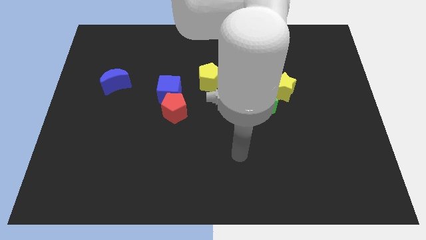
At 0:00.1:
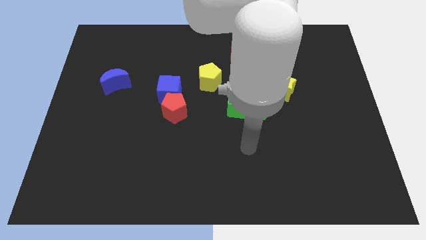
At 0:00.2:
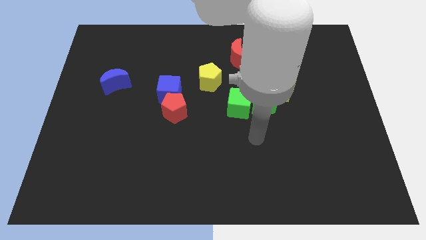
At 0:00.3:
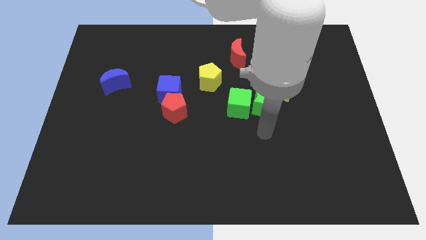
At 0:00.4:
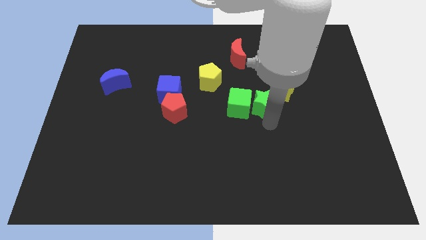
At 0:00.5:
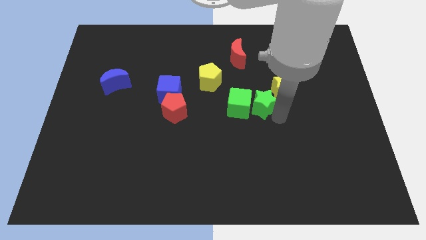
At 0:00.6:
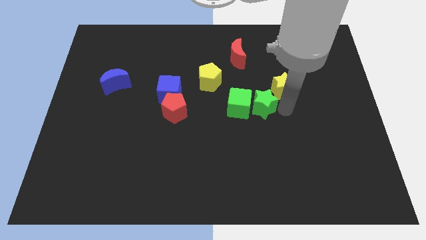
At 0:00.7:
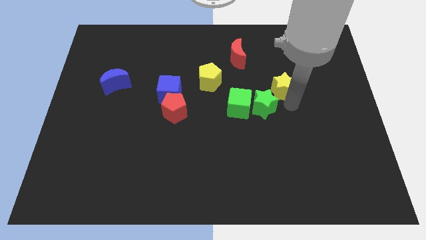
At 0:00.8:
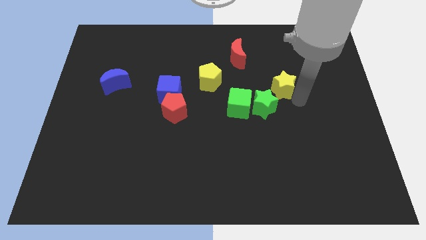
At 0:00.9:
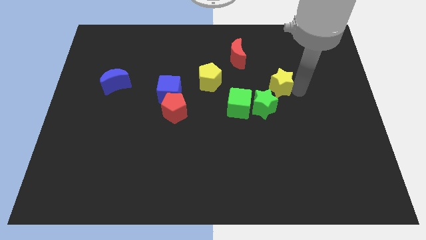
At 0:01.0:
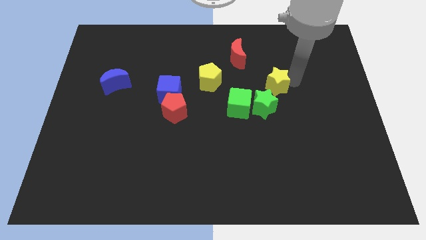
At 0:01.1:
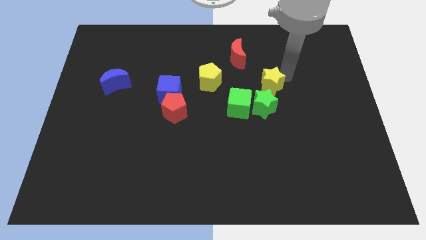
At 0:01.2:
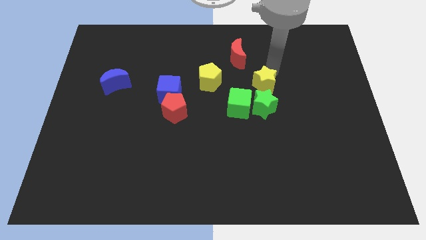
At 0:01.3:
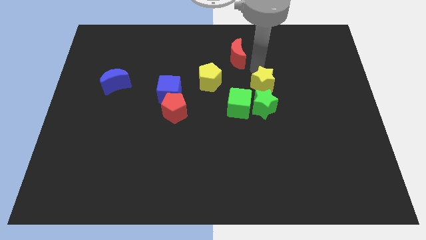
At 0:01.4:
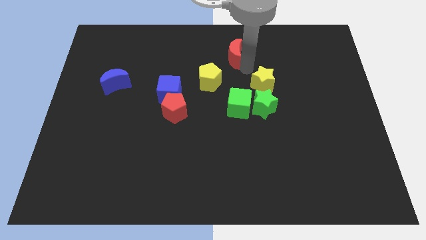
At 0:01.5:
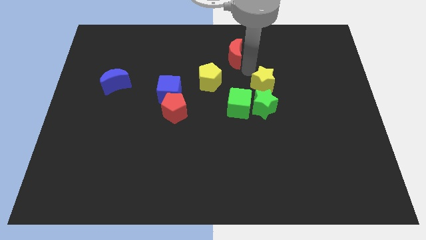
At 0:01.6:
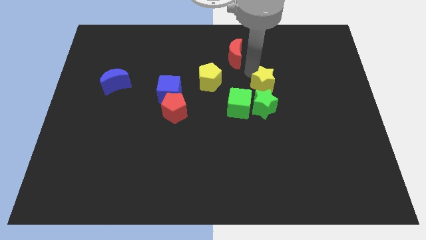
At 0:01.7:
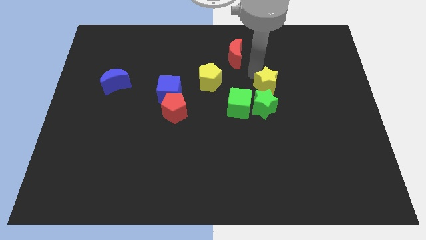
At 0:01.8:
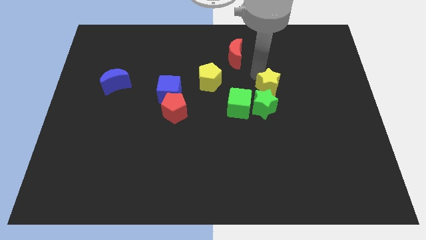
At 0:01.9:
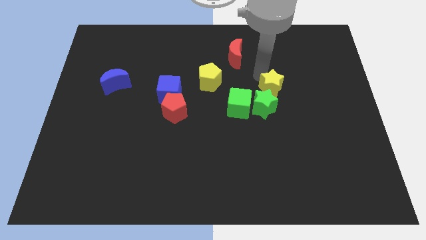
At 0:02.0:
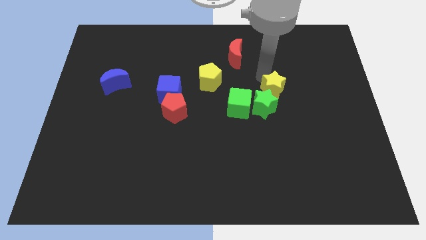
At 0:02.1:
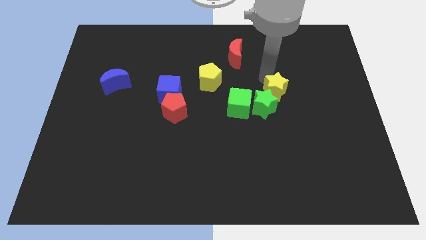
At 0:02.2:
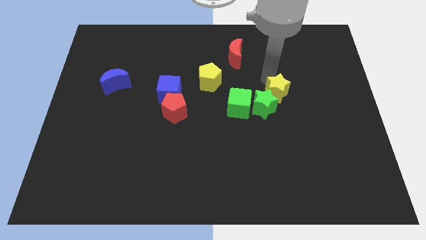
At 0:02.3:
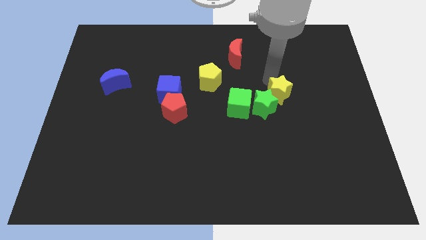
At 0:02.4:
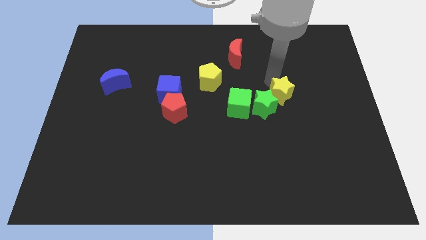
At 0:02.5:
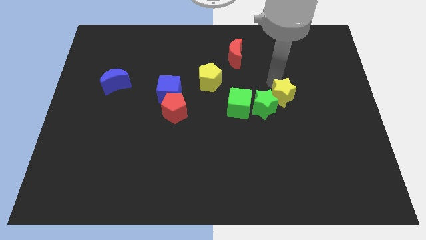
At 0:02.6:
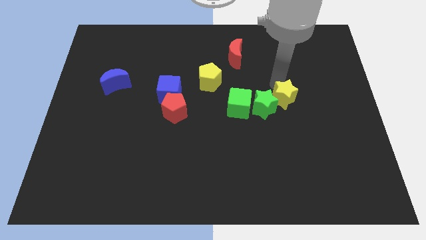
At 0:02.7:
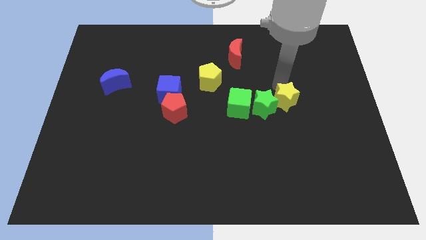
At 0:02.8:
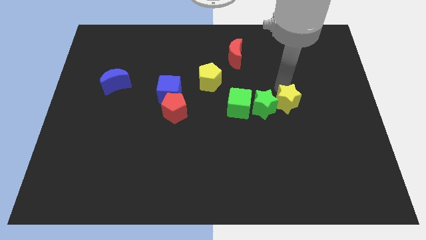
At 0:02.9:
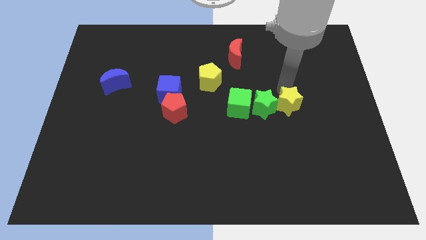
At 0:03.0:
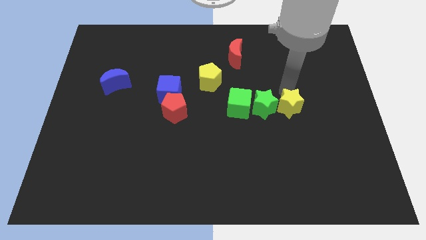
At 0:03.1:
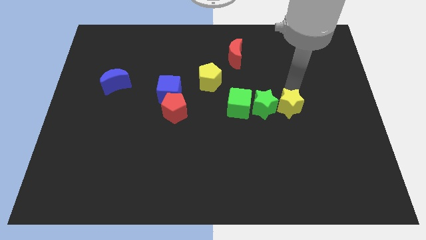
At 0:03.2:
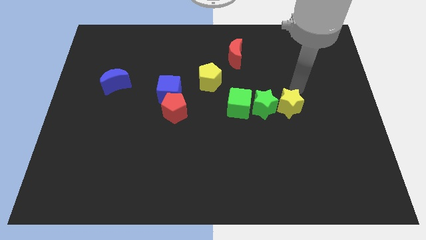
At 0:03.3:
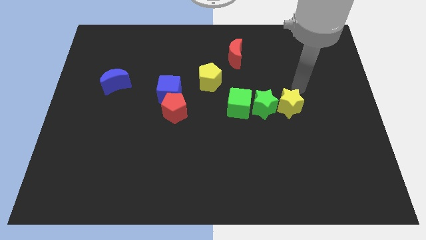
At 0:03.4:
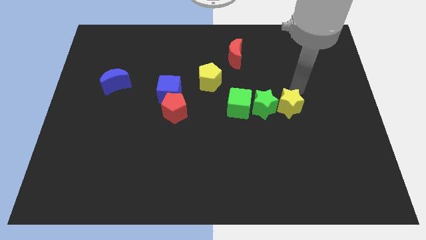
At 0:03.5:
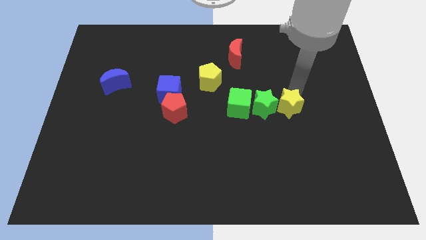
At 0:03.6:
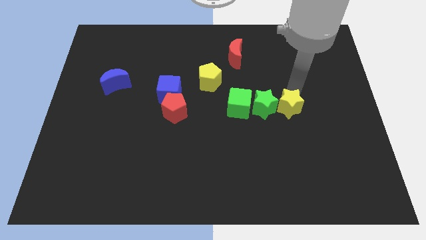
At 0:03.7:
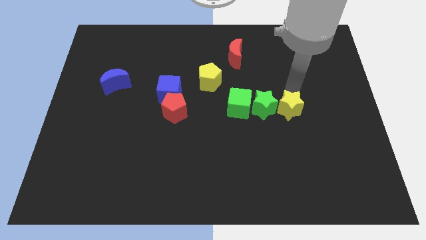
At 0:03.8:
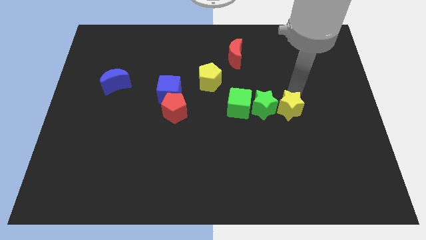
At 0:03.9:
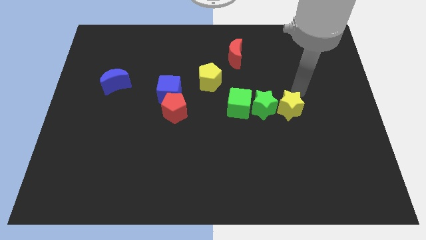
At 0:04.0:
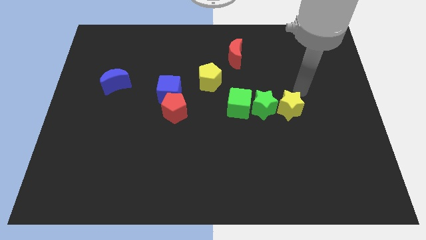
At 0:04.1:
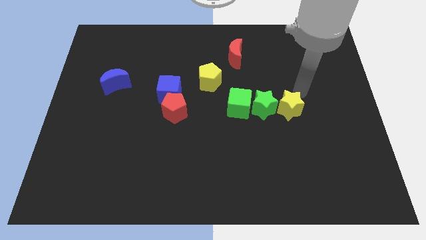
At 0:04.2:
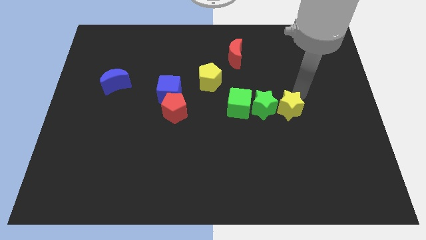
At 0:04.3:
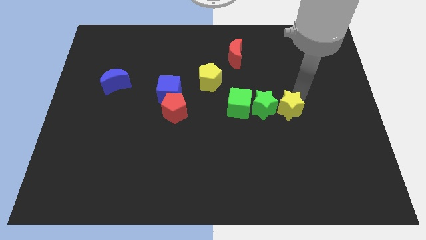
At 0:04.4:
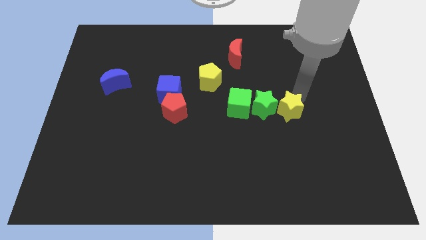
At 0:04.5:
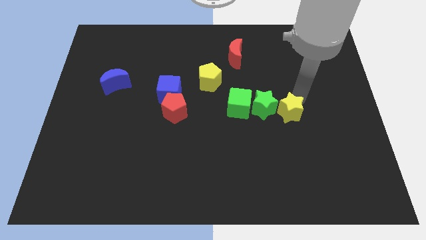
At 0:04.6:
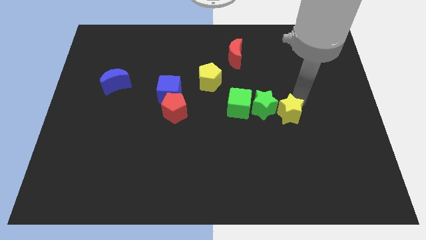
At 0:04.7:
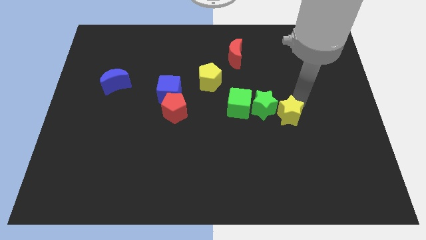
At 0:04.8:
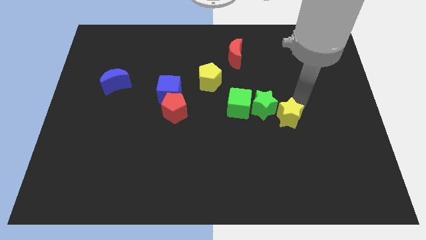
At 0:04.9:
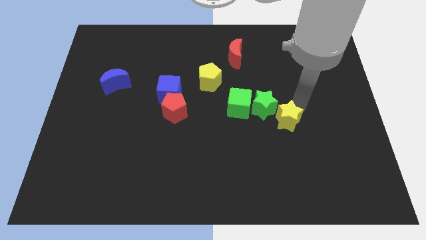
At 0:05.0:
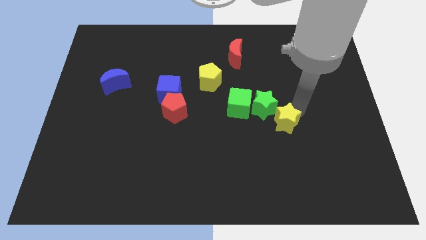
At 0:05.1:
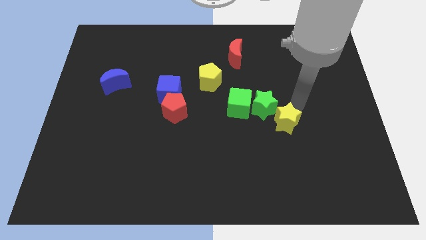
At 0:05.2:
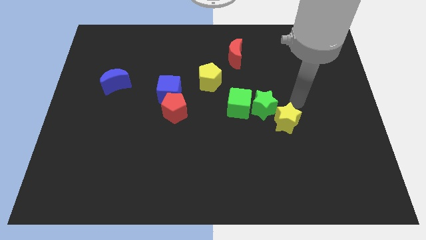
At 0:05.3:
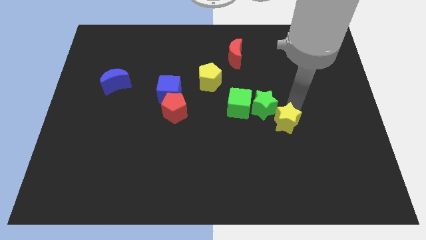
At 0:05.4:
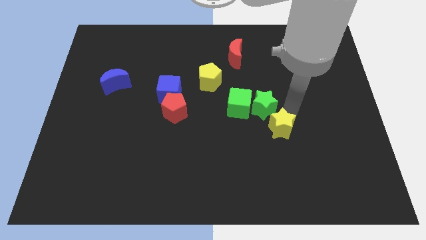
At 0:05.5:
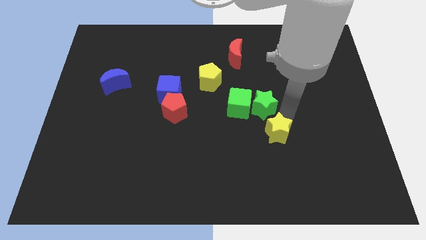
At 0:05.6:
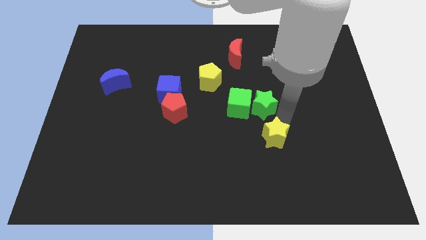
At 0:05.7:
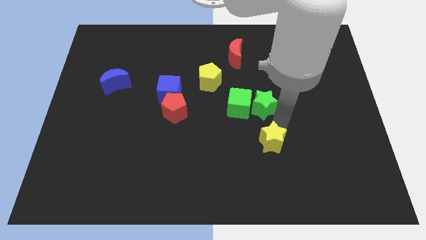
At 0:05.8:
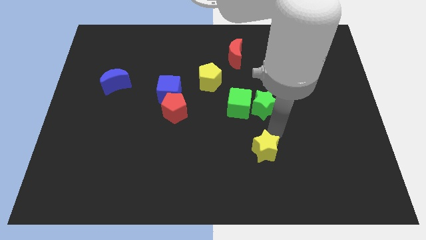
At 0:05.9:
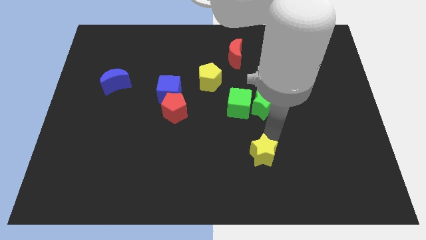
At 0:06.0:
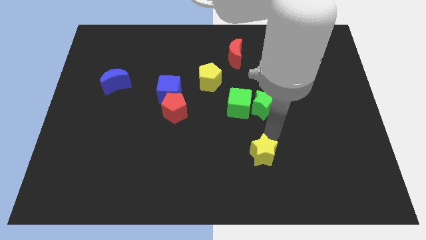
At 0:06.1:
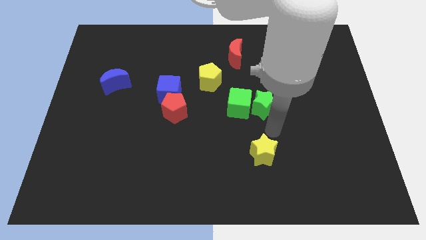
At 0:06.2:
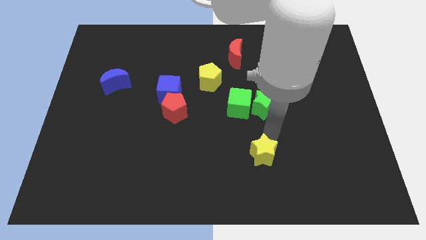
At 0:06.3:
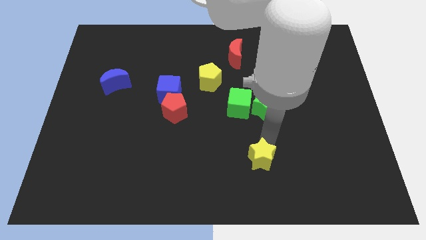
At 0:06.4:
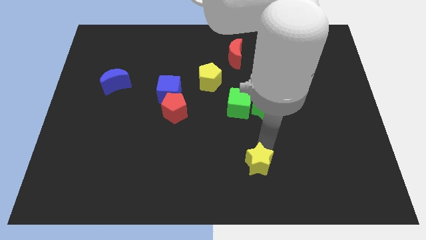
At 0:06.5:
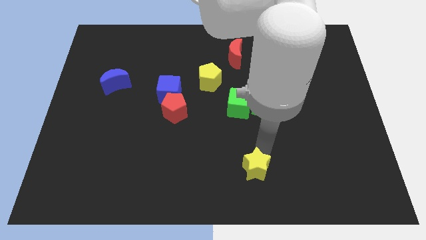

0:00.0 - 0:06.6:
move the yellow star to the bottom
